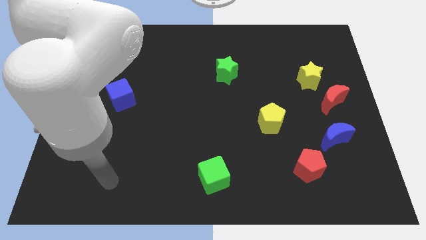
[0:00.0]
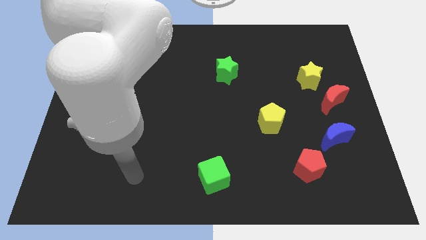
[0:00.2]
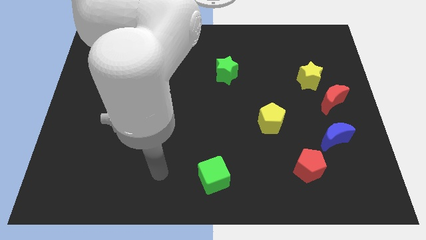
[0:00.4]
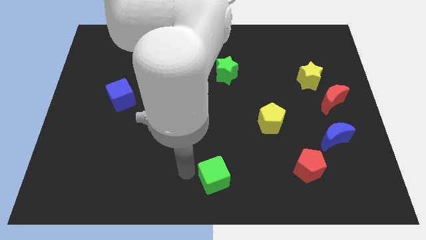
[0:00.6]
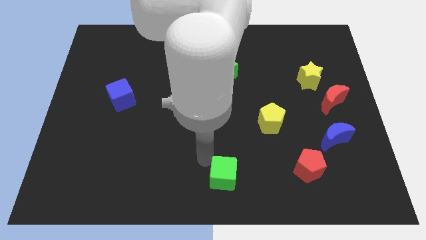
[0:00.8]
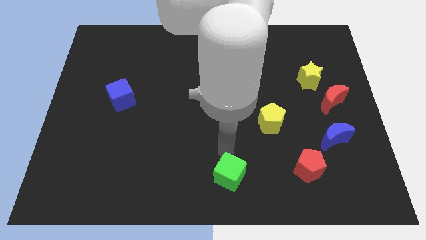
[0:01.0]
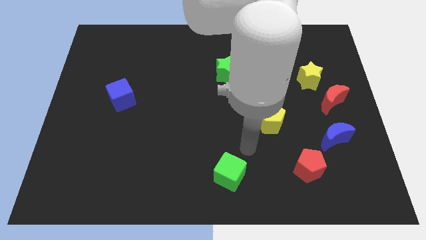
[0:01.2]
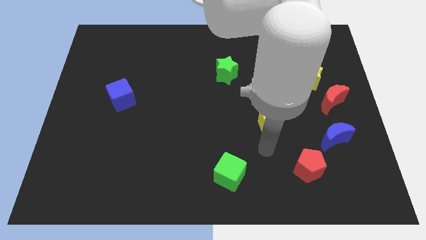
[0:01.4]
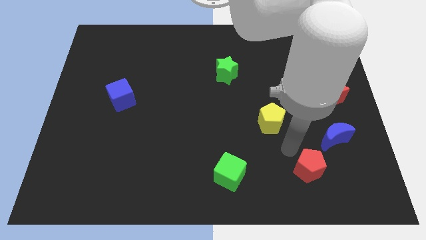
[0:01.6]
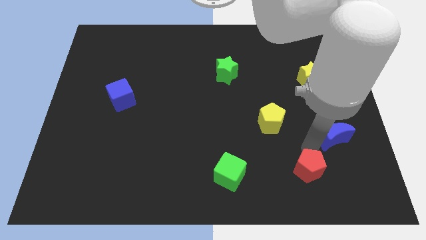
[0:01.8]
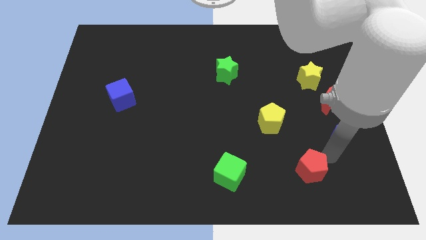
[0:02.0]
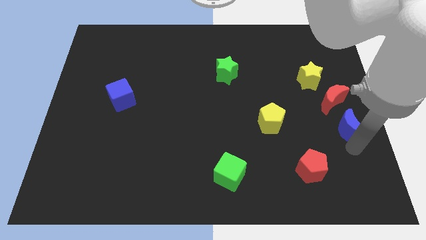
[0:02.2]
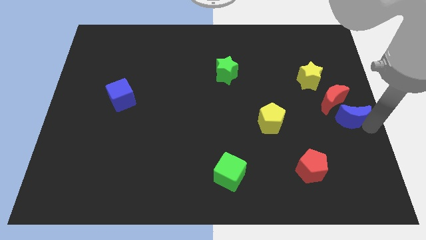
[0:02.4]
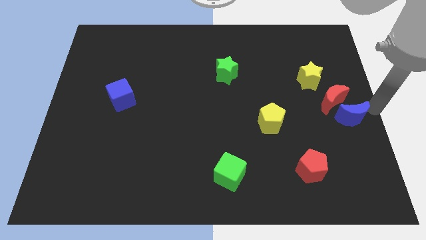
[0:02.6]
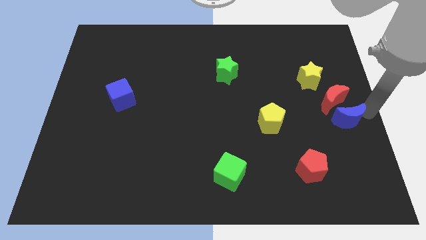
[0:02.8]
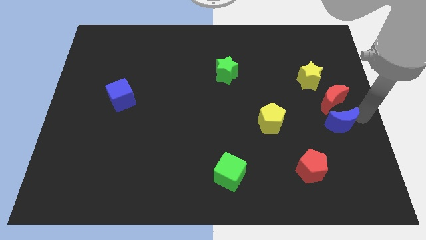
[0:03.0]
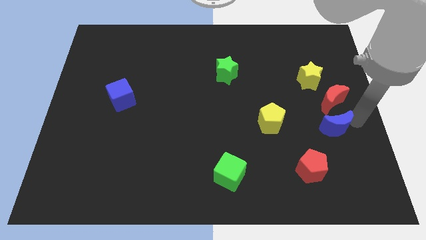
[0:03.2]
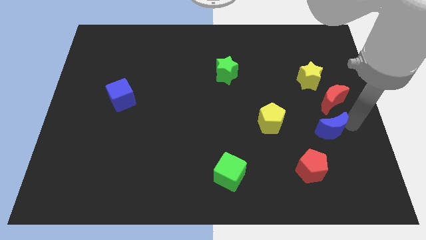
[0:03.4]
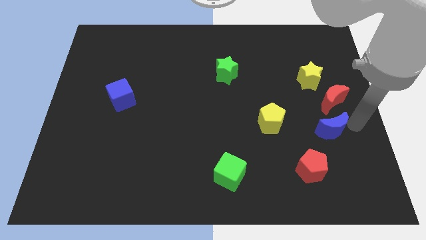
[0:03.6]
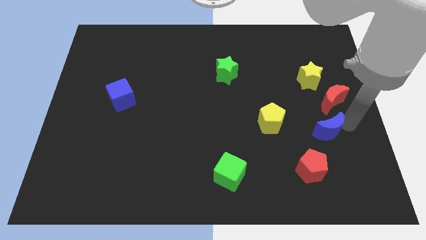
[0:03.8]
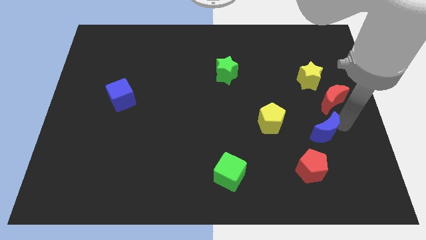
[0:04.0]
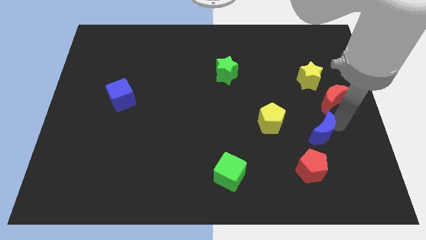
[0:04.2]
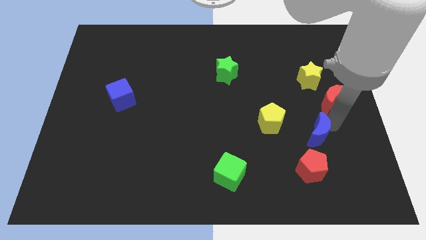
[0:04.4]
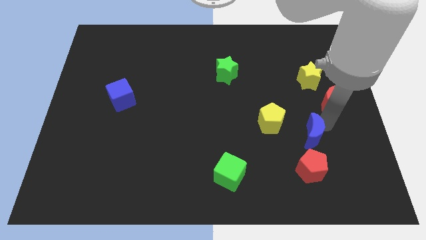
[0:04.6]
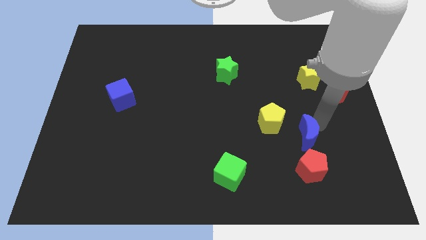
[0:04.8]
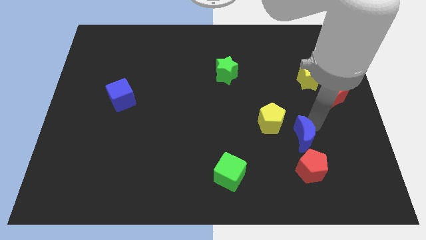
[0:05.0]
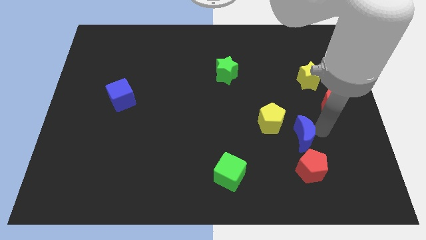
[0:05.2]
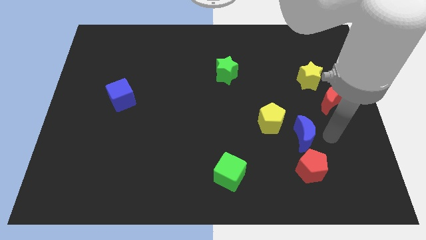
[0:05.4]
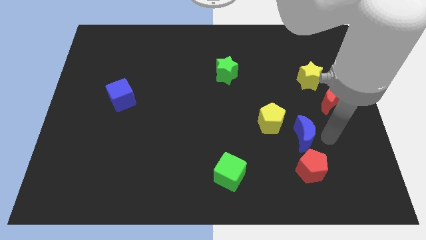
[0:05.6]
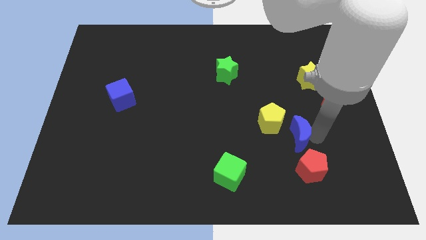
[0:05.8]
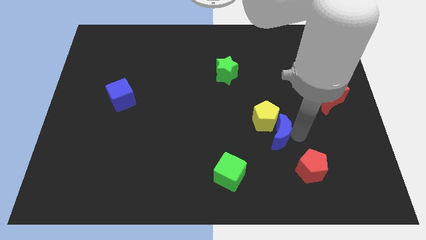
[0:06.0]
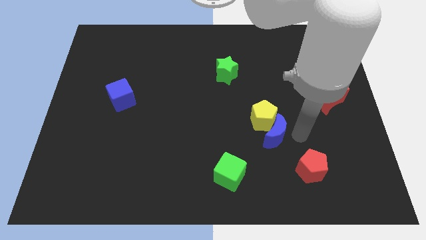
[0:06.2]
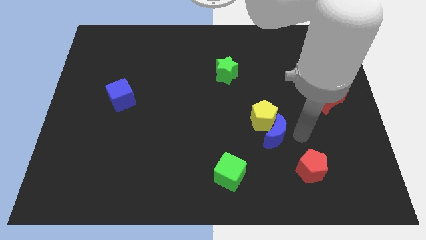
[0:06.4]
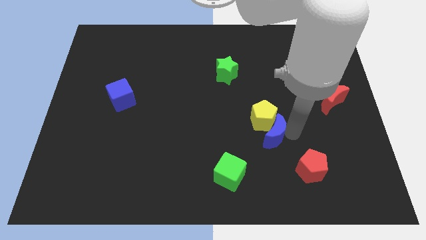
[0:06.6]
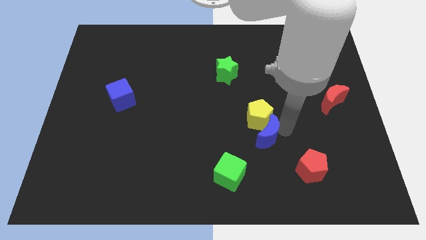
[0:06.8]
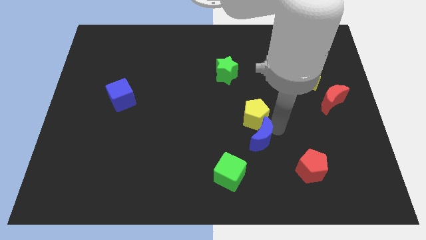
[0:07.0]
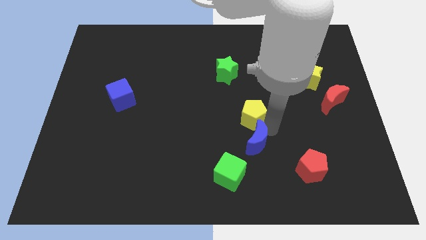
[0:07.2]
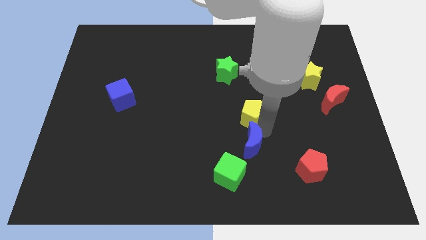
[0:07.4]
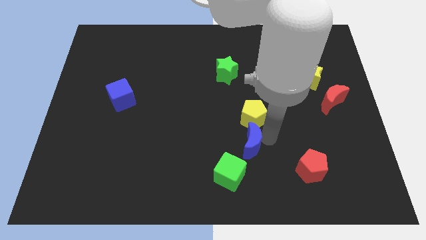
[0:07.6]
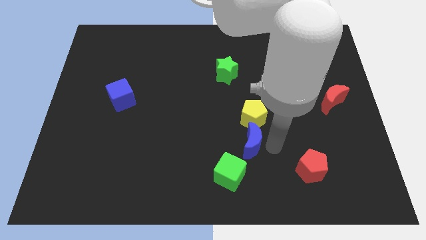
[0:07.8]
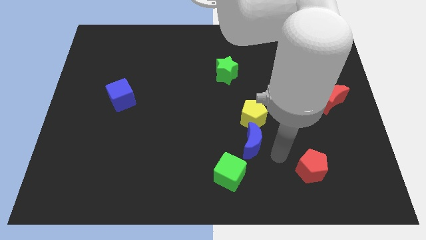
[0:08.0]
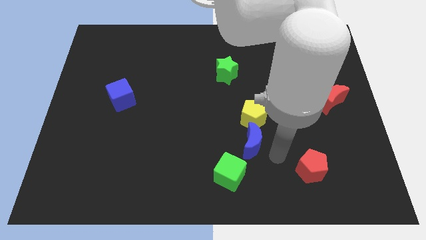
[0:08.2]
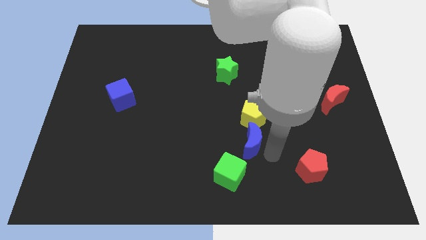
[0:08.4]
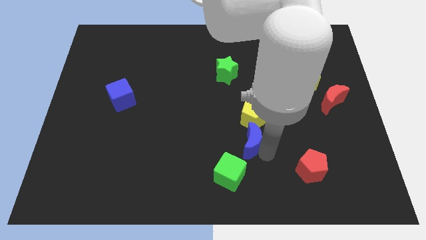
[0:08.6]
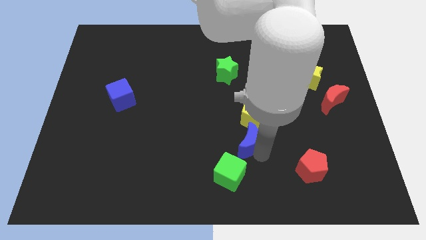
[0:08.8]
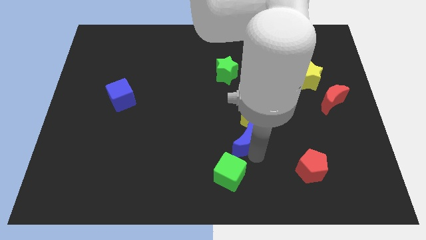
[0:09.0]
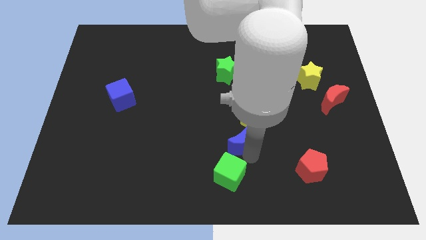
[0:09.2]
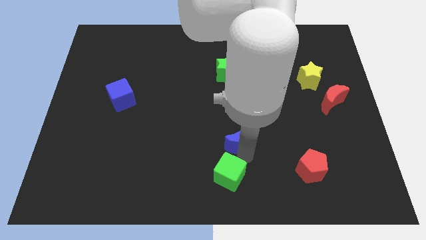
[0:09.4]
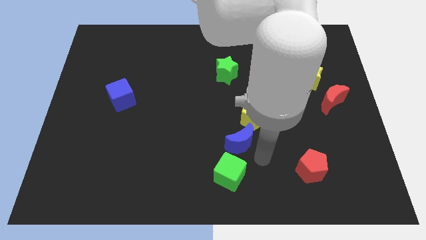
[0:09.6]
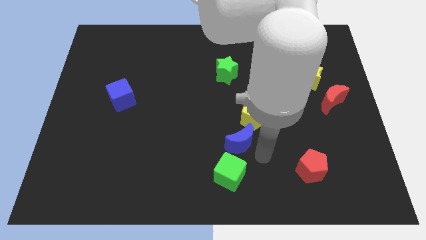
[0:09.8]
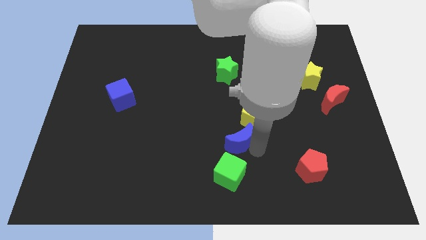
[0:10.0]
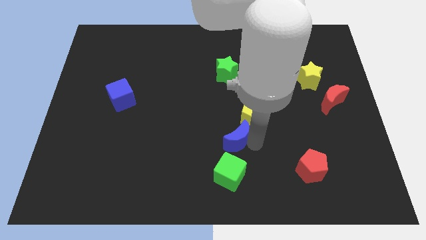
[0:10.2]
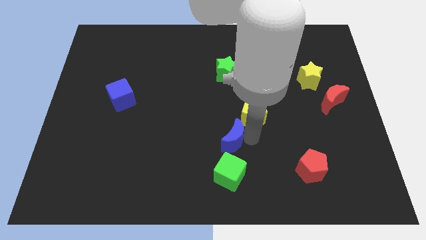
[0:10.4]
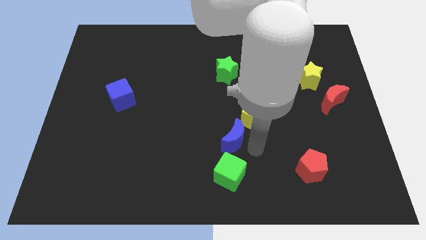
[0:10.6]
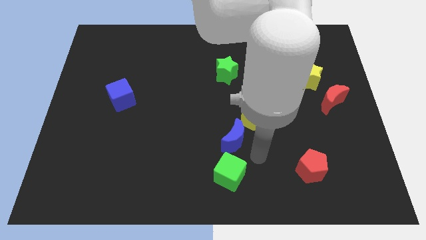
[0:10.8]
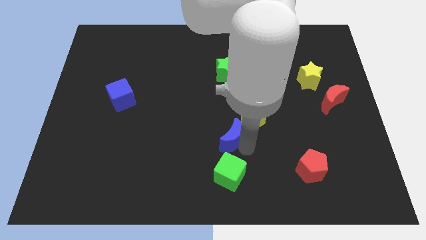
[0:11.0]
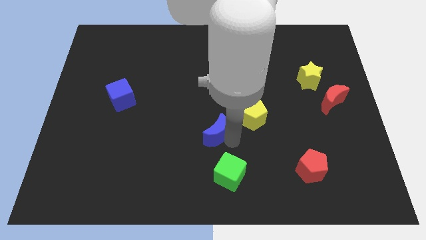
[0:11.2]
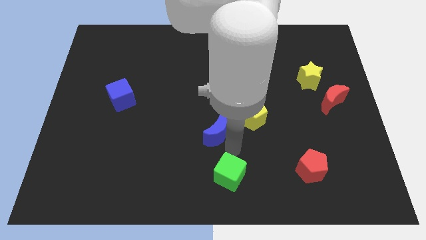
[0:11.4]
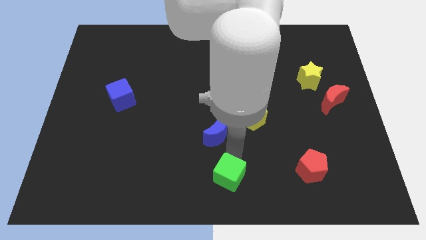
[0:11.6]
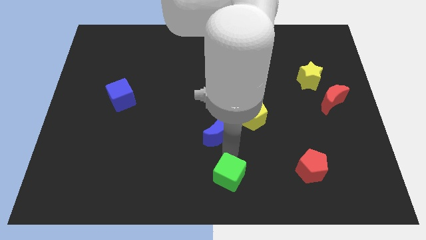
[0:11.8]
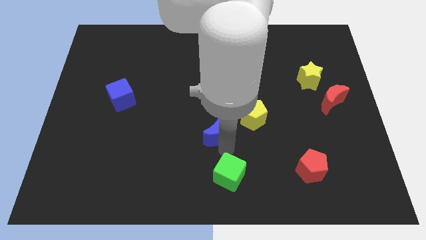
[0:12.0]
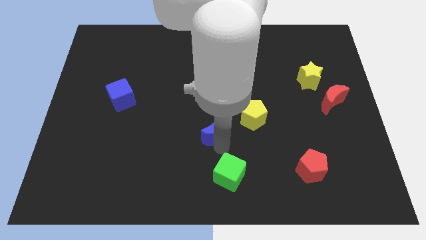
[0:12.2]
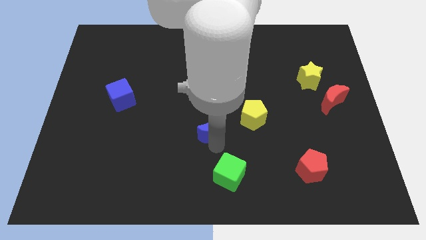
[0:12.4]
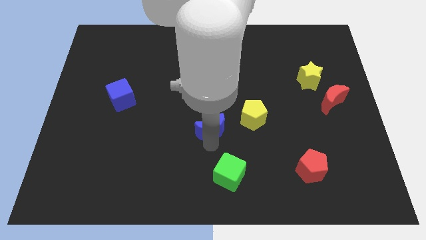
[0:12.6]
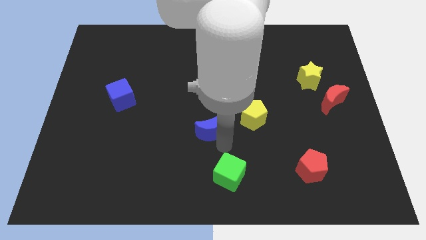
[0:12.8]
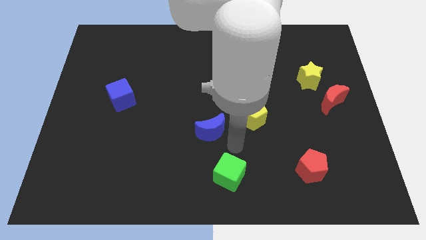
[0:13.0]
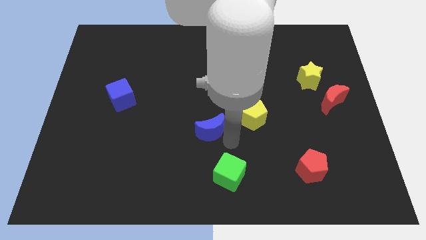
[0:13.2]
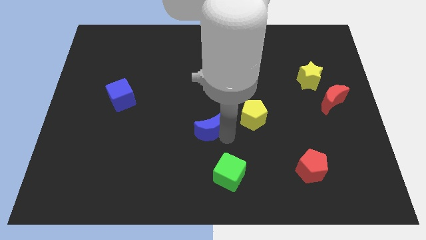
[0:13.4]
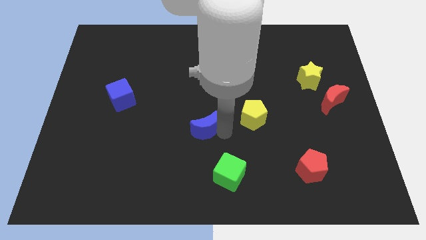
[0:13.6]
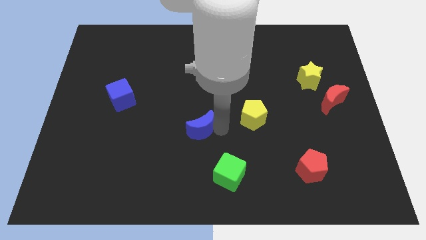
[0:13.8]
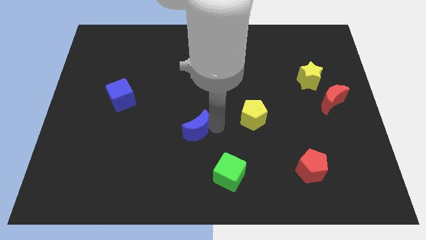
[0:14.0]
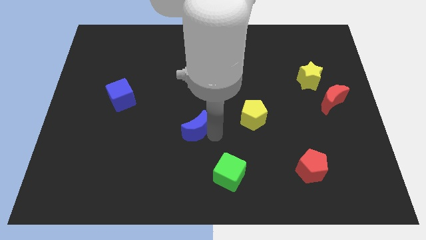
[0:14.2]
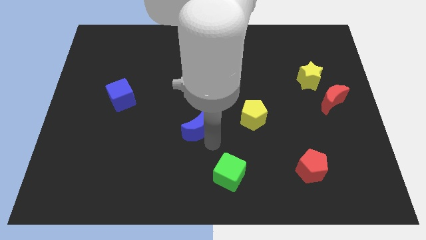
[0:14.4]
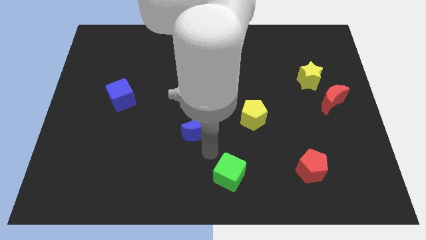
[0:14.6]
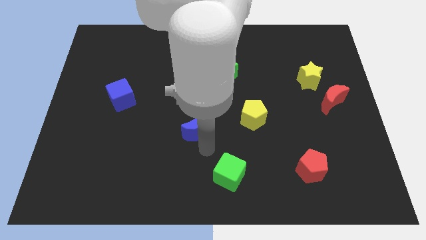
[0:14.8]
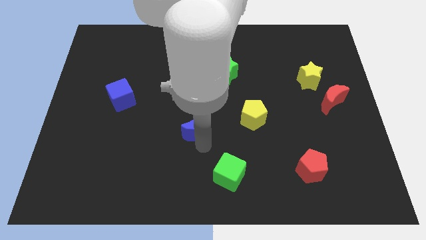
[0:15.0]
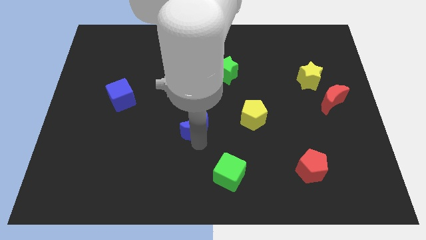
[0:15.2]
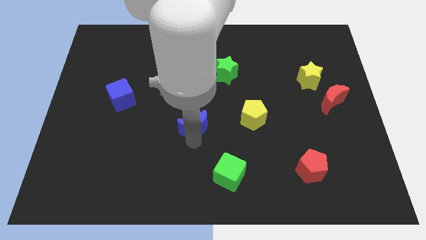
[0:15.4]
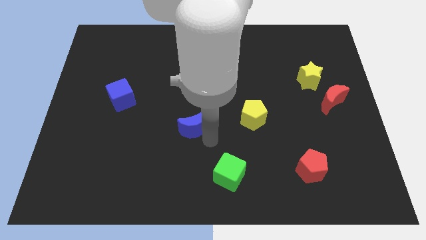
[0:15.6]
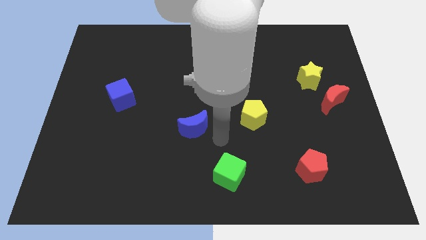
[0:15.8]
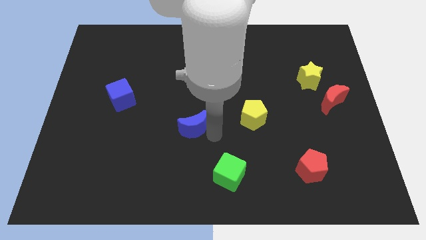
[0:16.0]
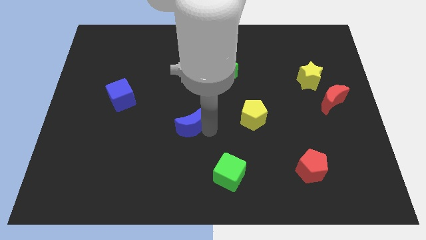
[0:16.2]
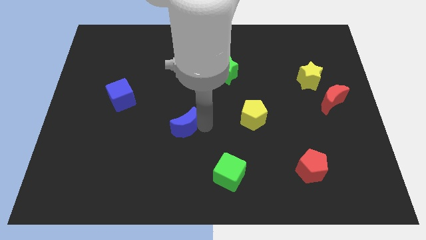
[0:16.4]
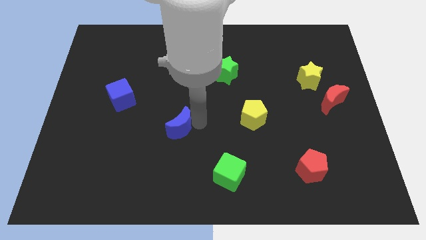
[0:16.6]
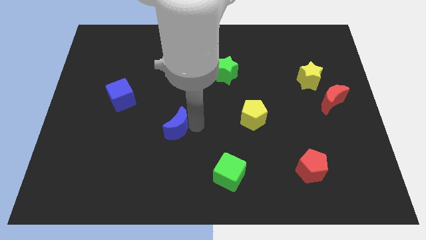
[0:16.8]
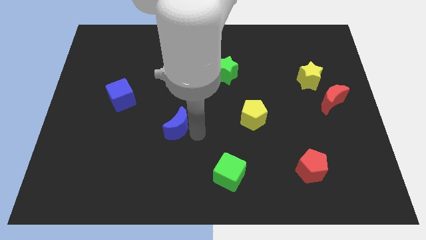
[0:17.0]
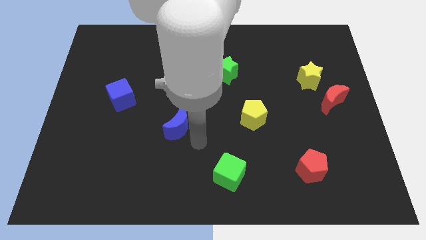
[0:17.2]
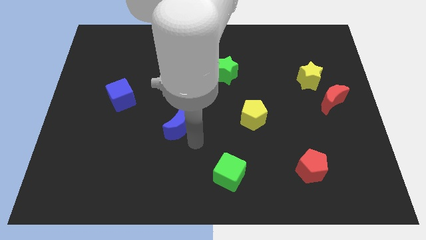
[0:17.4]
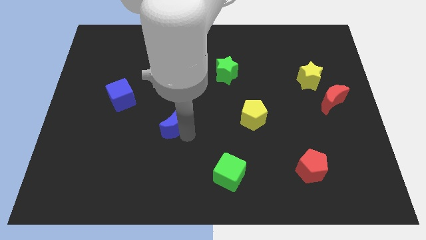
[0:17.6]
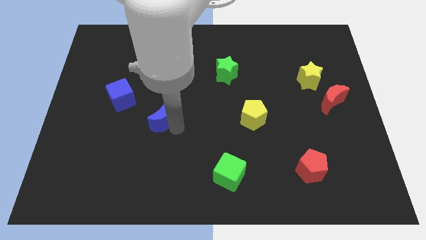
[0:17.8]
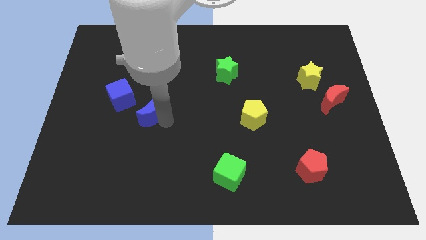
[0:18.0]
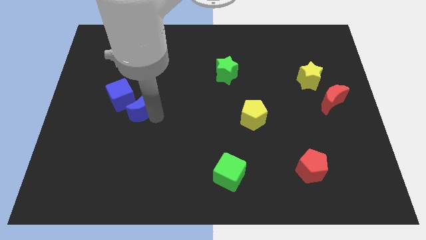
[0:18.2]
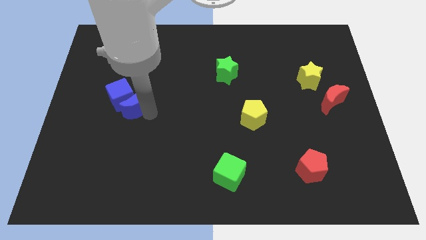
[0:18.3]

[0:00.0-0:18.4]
put the blue moon next to the blue cube
